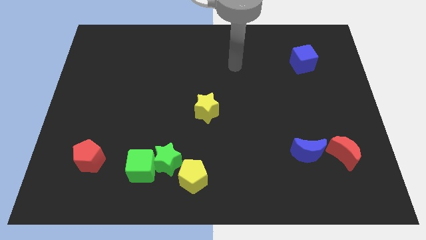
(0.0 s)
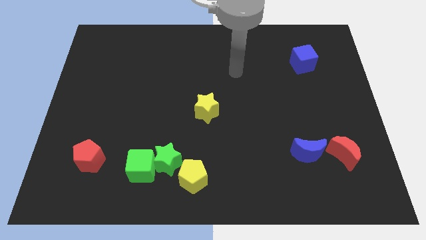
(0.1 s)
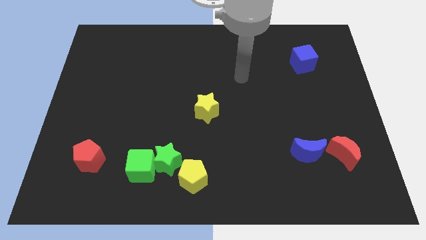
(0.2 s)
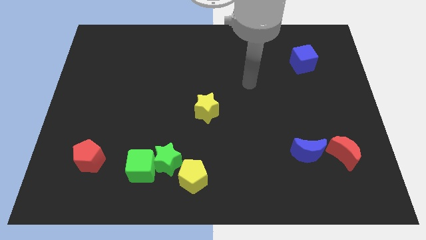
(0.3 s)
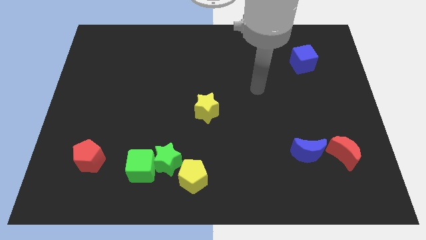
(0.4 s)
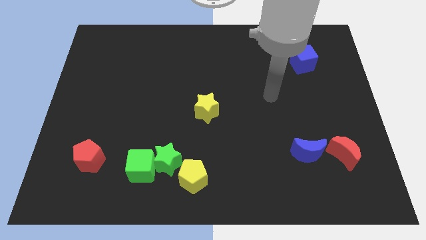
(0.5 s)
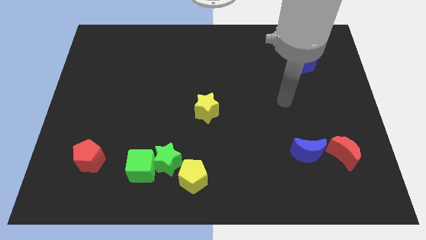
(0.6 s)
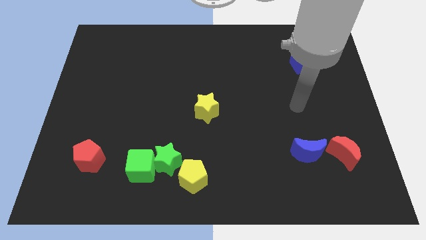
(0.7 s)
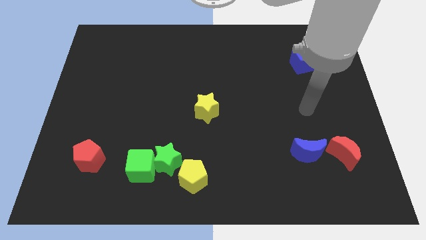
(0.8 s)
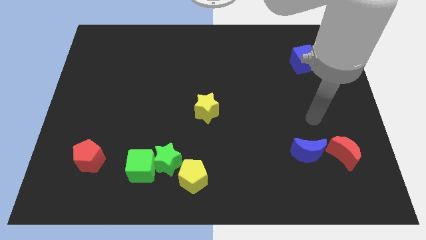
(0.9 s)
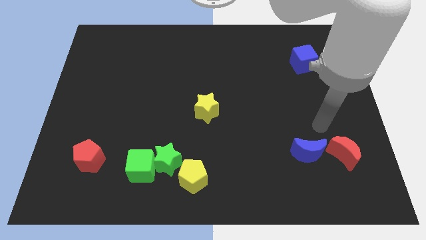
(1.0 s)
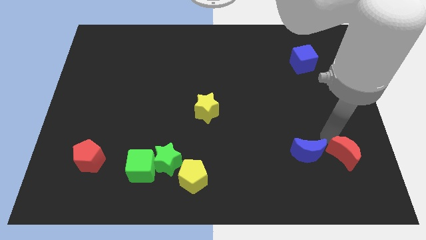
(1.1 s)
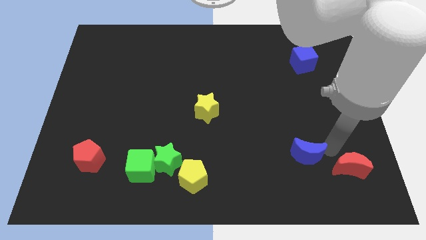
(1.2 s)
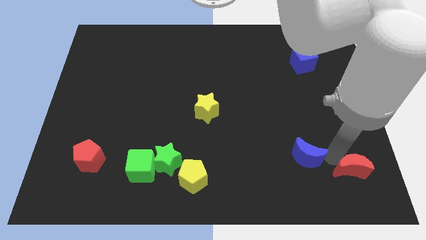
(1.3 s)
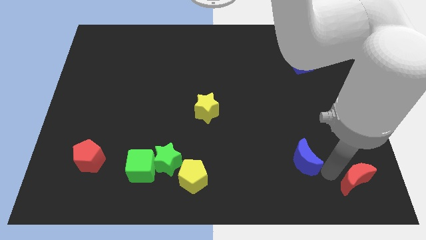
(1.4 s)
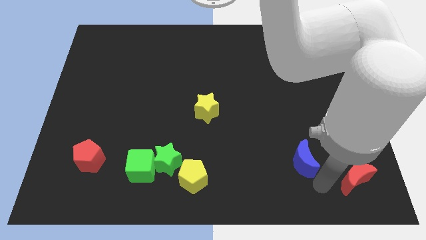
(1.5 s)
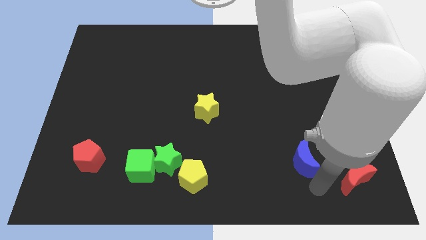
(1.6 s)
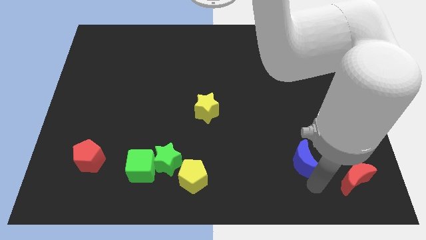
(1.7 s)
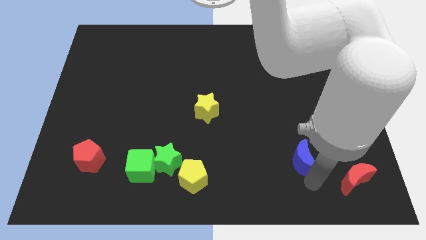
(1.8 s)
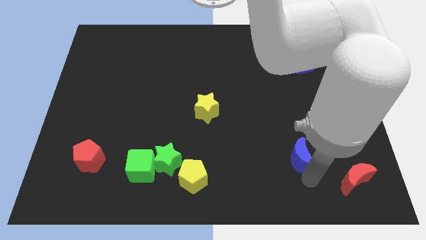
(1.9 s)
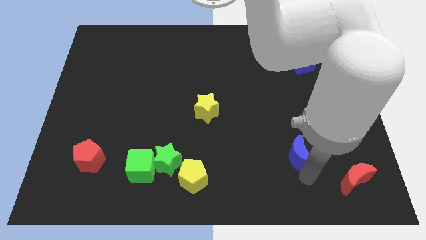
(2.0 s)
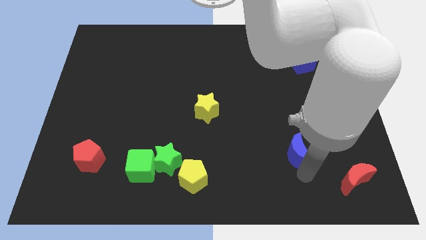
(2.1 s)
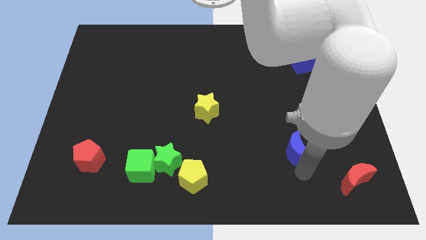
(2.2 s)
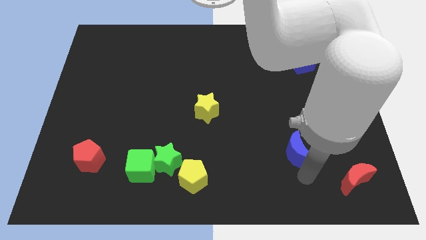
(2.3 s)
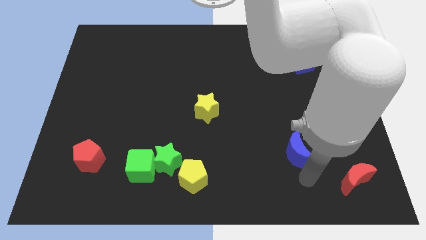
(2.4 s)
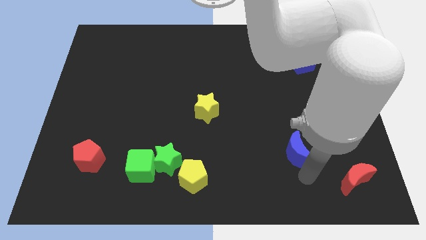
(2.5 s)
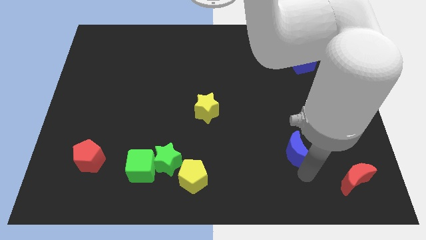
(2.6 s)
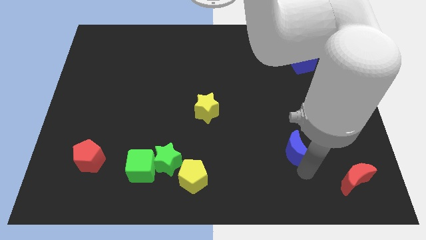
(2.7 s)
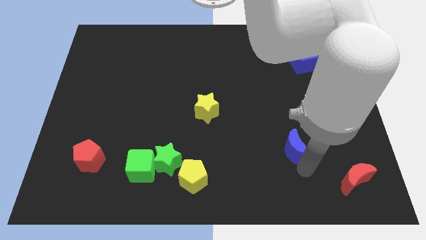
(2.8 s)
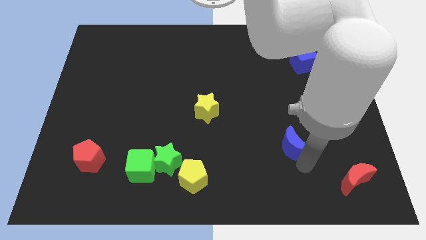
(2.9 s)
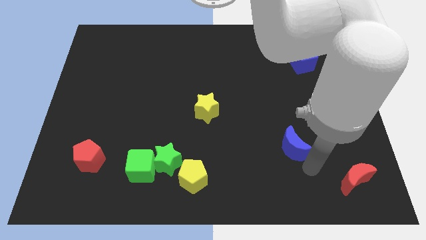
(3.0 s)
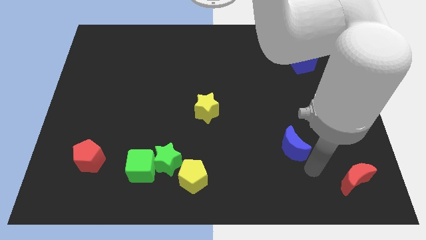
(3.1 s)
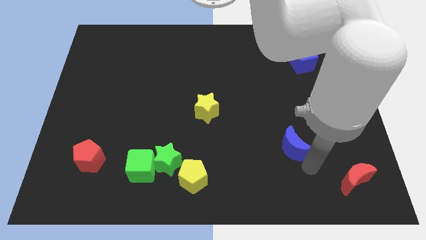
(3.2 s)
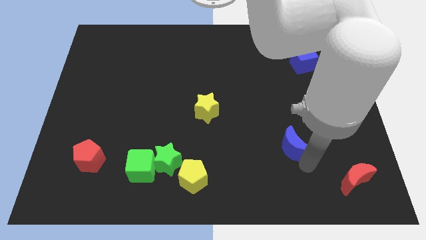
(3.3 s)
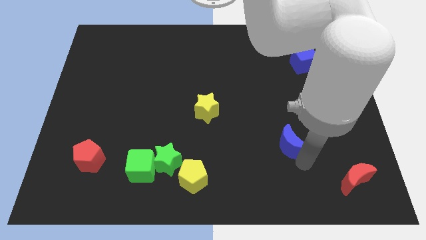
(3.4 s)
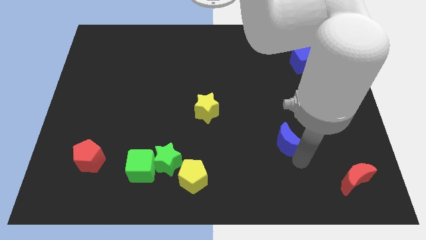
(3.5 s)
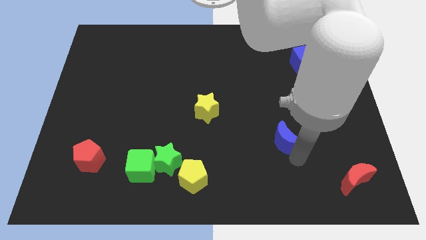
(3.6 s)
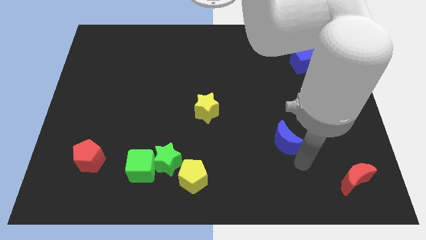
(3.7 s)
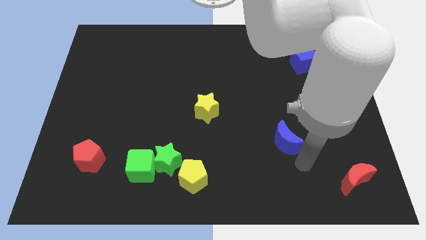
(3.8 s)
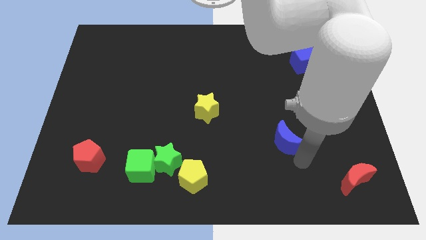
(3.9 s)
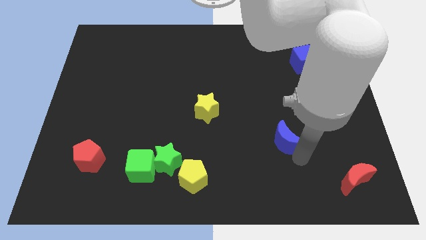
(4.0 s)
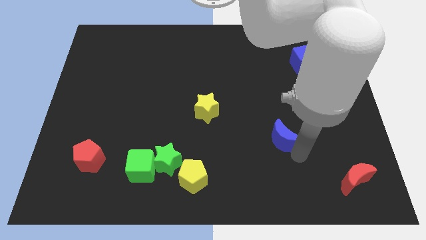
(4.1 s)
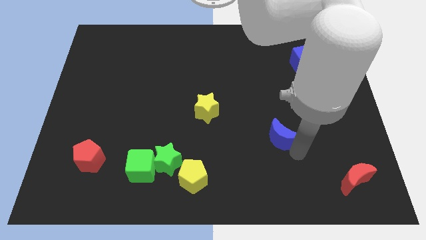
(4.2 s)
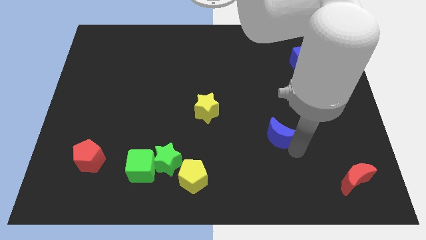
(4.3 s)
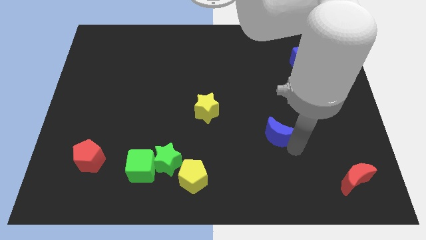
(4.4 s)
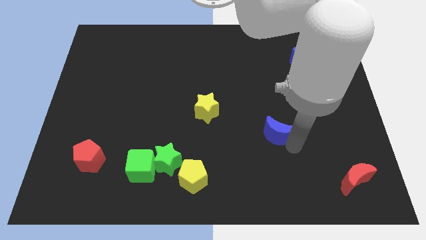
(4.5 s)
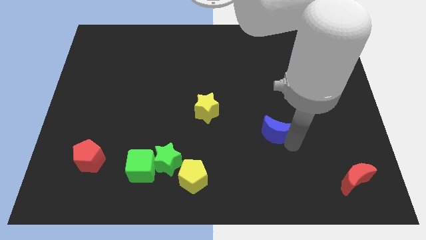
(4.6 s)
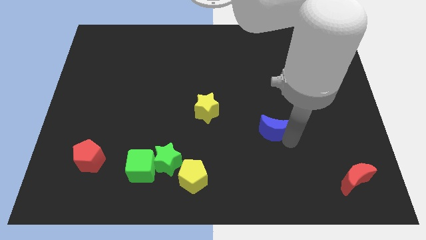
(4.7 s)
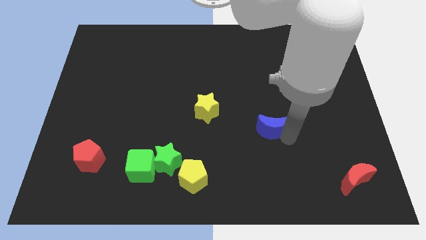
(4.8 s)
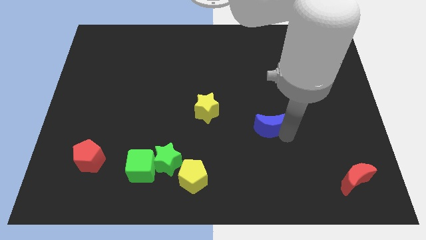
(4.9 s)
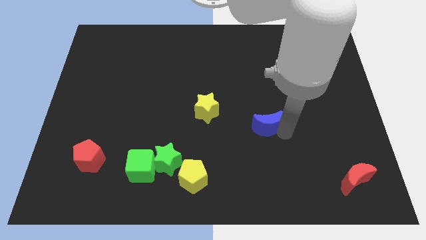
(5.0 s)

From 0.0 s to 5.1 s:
move the blue moon right of the yellow star

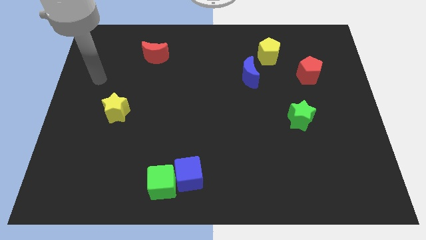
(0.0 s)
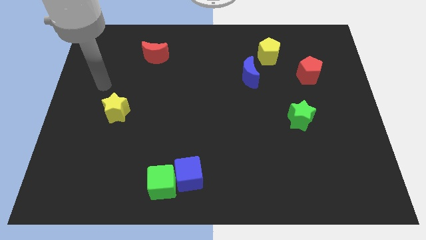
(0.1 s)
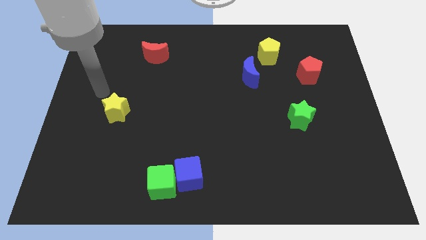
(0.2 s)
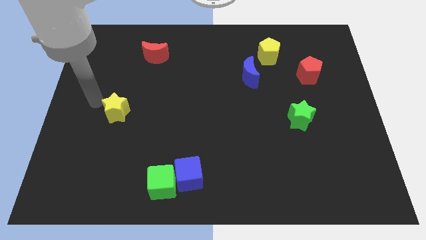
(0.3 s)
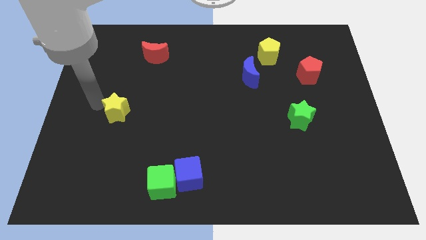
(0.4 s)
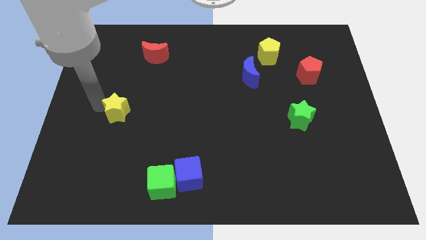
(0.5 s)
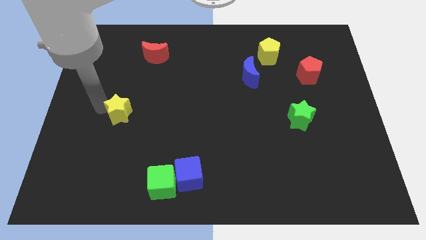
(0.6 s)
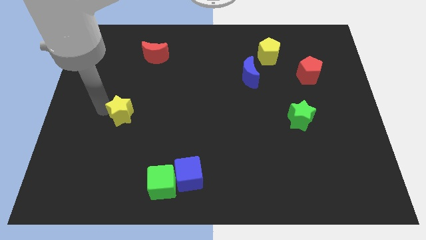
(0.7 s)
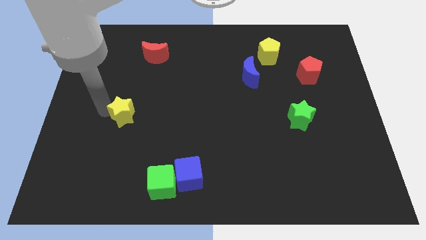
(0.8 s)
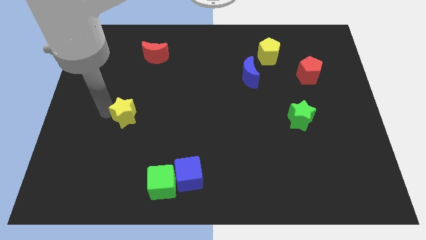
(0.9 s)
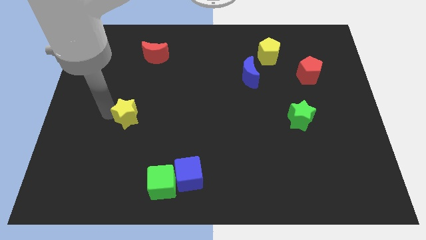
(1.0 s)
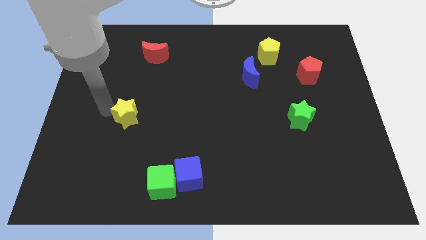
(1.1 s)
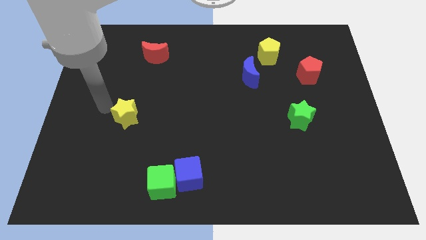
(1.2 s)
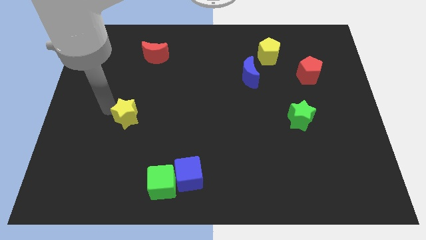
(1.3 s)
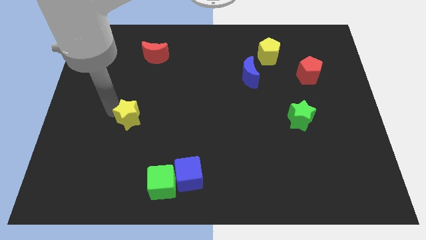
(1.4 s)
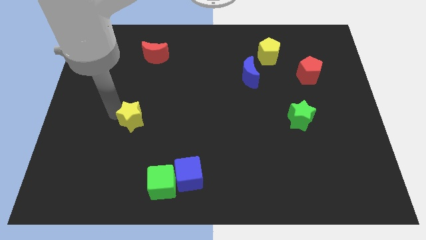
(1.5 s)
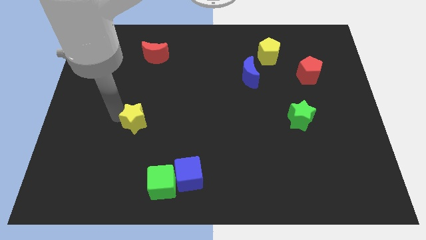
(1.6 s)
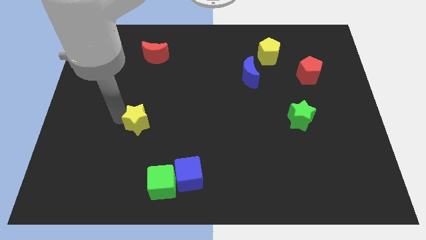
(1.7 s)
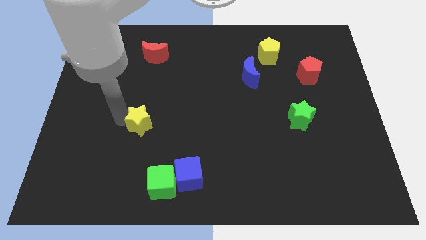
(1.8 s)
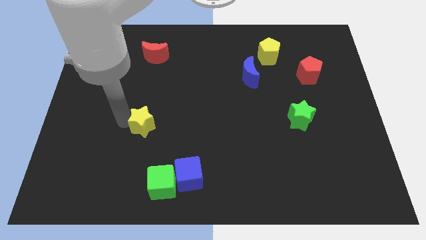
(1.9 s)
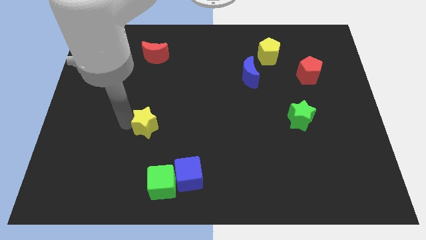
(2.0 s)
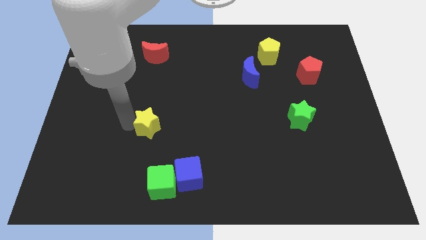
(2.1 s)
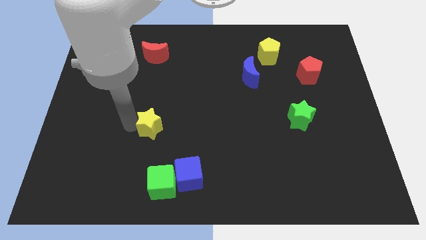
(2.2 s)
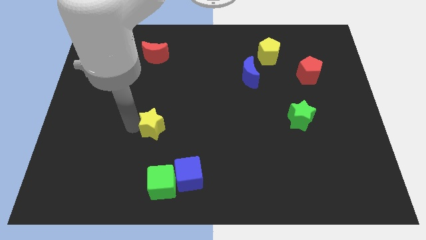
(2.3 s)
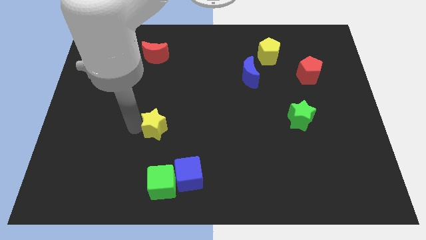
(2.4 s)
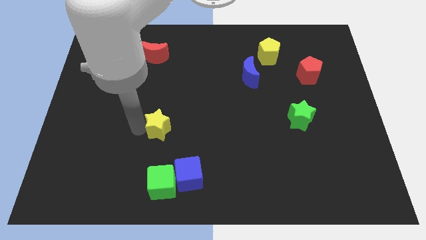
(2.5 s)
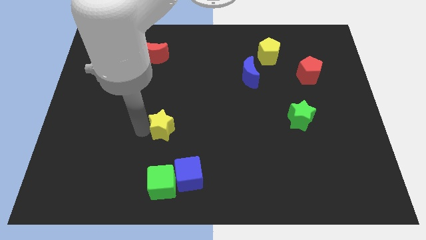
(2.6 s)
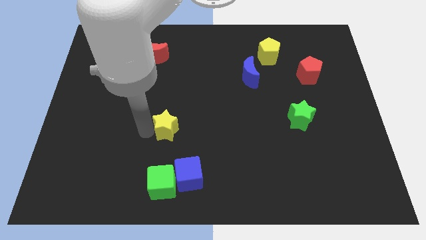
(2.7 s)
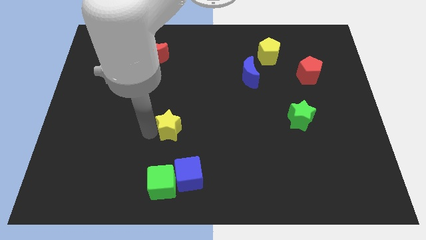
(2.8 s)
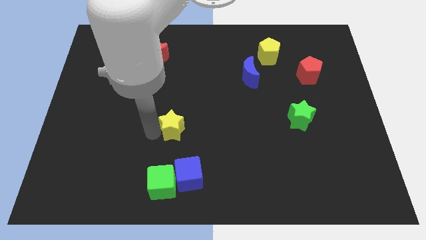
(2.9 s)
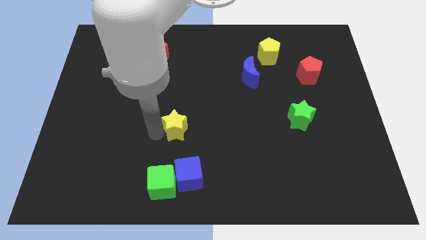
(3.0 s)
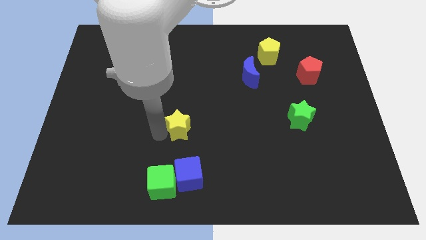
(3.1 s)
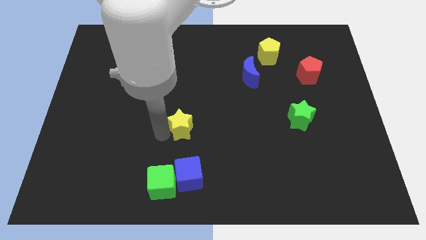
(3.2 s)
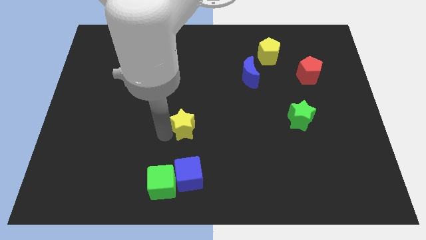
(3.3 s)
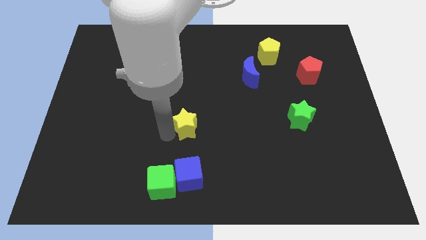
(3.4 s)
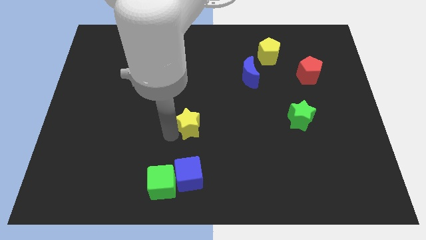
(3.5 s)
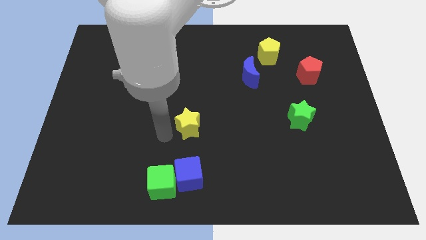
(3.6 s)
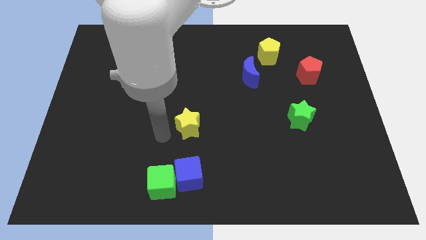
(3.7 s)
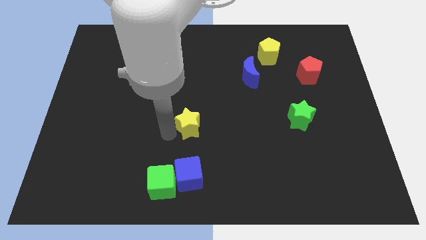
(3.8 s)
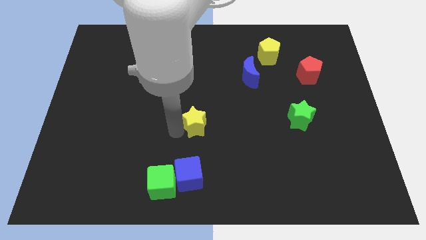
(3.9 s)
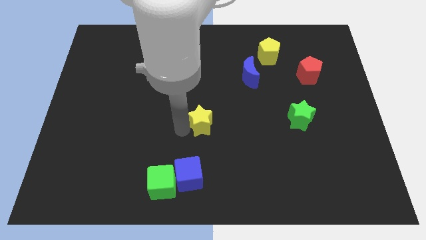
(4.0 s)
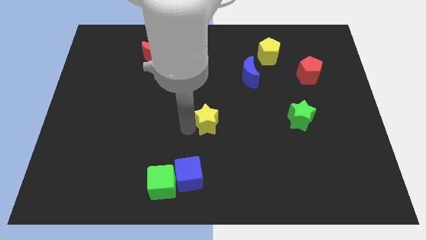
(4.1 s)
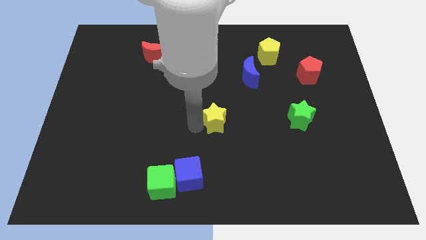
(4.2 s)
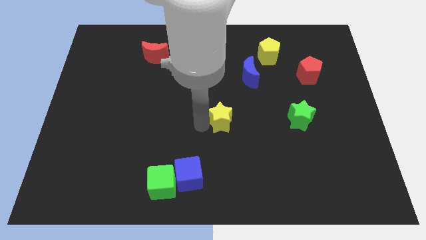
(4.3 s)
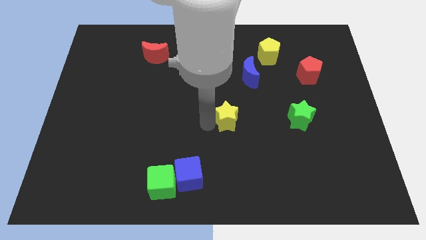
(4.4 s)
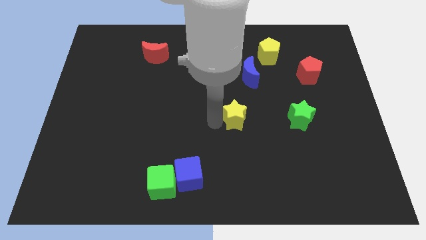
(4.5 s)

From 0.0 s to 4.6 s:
put the yellow star to the left of the green star
